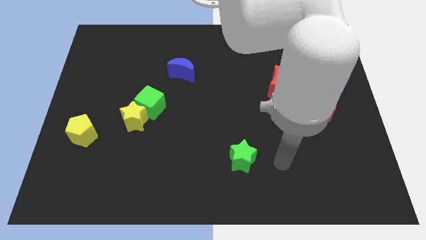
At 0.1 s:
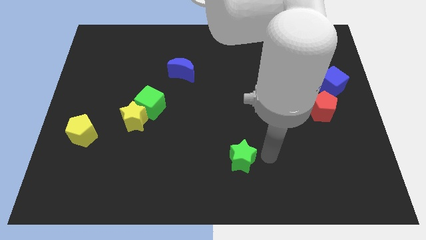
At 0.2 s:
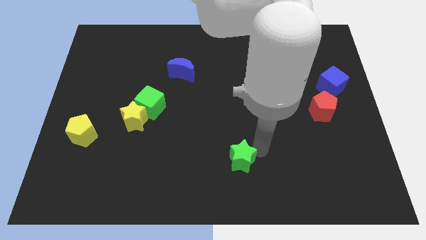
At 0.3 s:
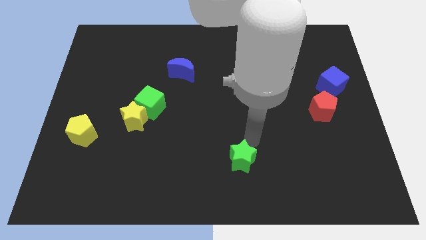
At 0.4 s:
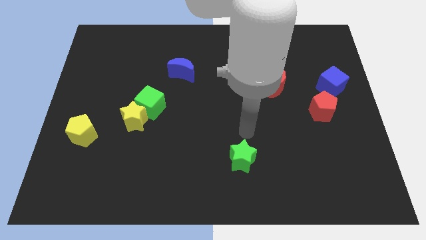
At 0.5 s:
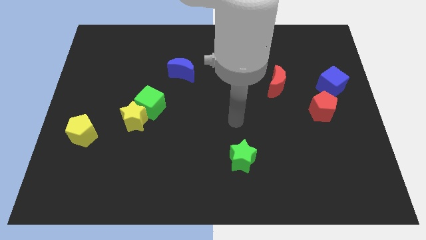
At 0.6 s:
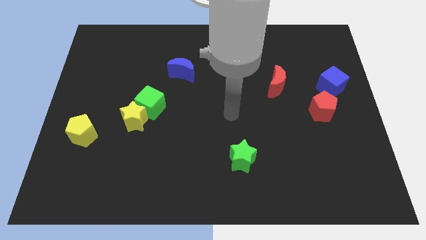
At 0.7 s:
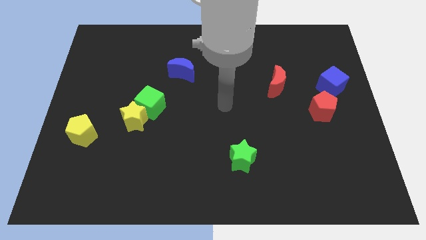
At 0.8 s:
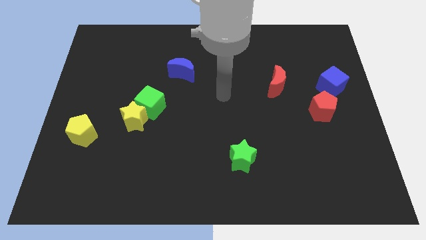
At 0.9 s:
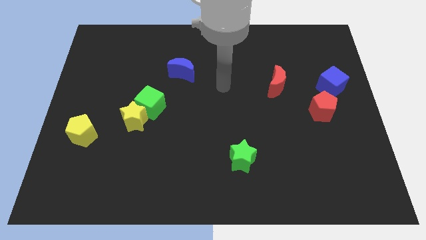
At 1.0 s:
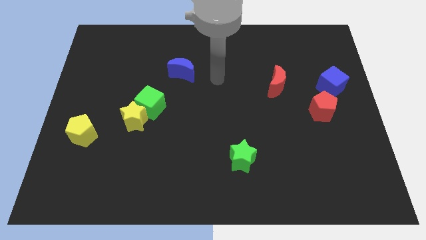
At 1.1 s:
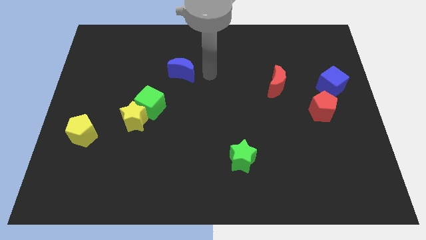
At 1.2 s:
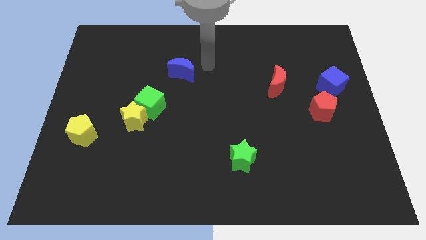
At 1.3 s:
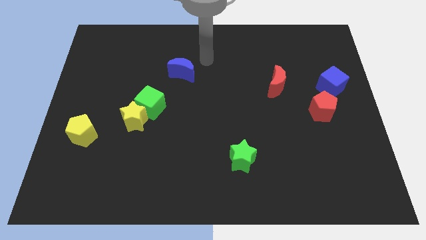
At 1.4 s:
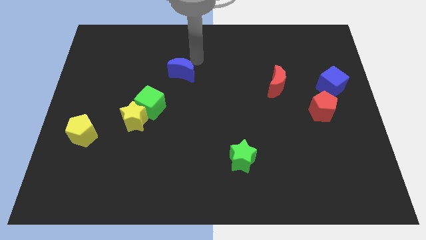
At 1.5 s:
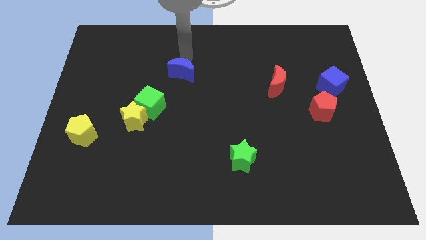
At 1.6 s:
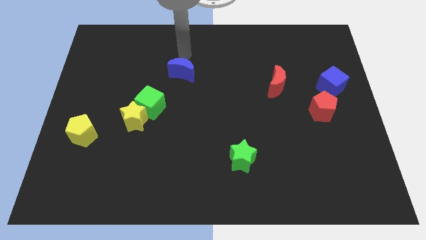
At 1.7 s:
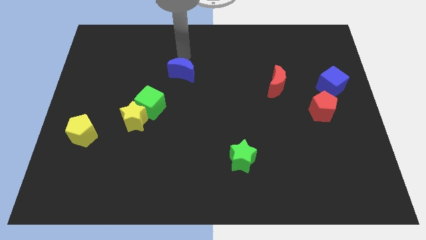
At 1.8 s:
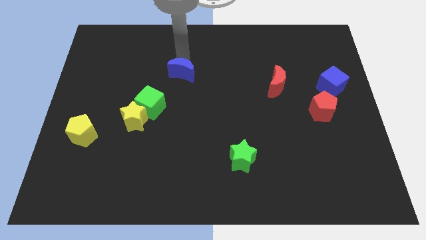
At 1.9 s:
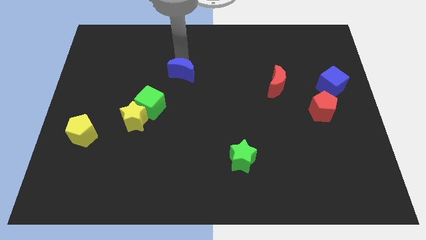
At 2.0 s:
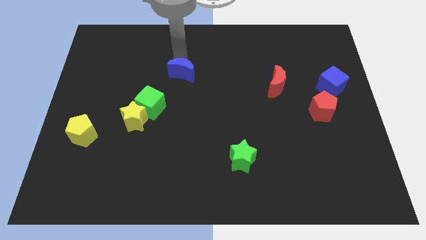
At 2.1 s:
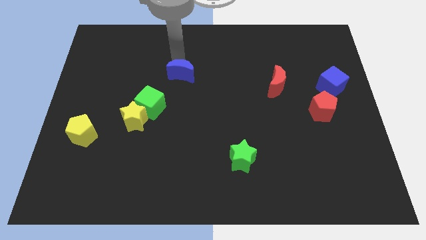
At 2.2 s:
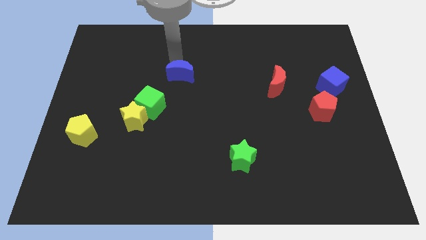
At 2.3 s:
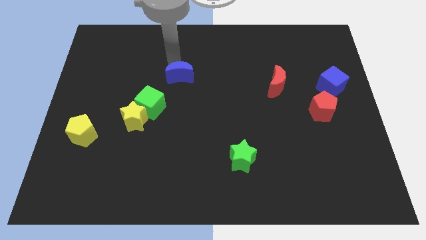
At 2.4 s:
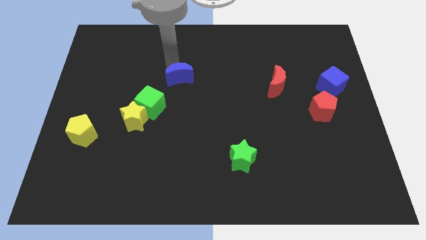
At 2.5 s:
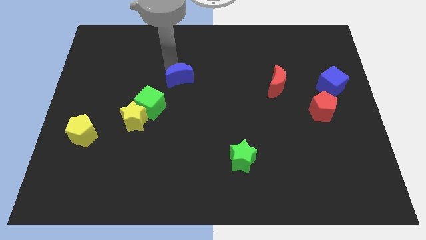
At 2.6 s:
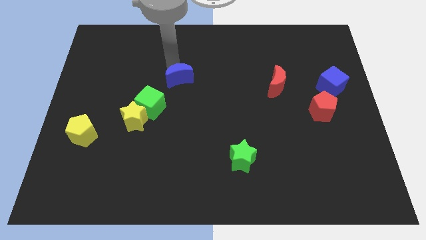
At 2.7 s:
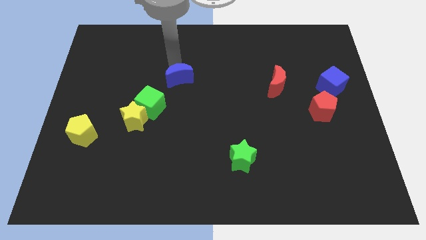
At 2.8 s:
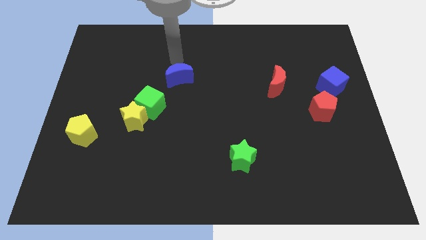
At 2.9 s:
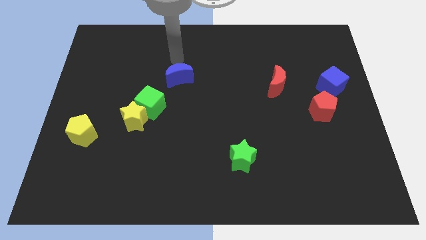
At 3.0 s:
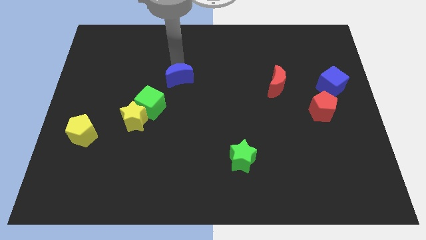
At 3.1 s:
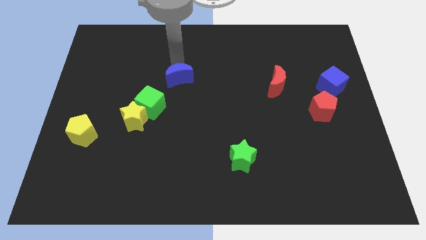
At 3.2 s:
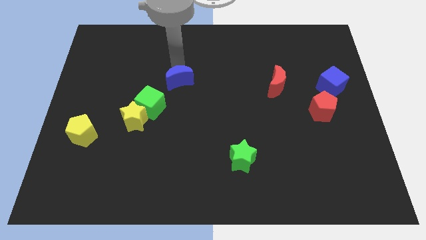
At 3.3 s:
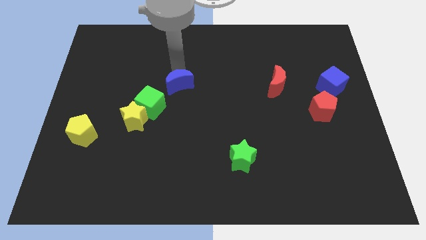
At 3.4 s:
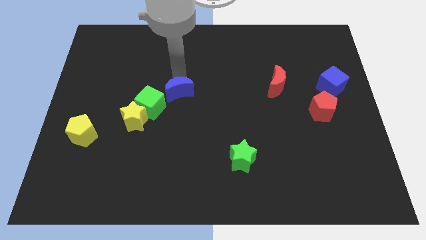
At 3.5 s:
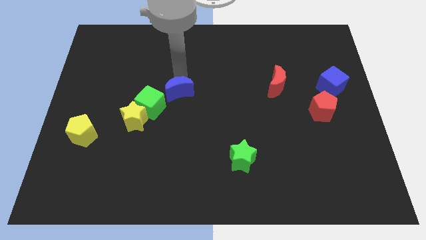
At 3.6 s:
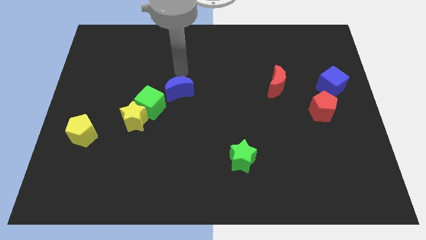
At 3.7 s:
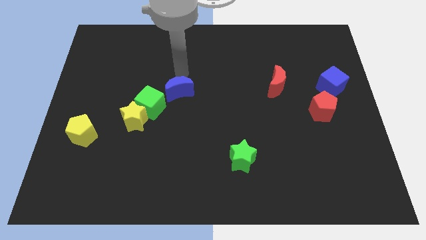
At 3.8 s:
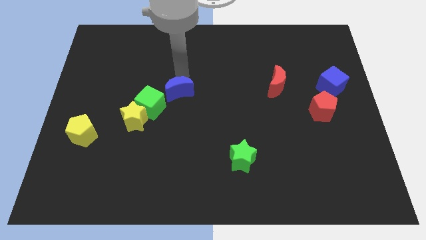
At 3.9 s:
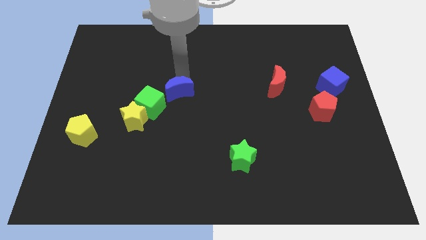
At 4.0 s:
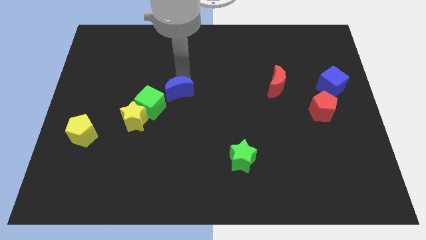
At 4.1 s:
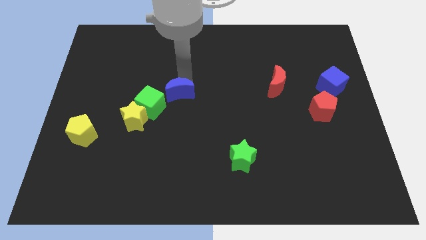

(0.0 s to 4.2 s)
slide the blue moon downwards a little

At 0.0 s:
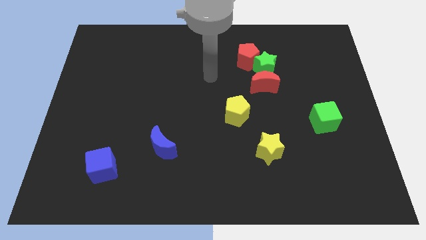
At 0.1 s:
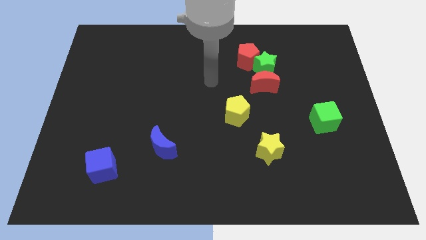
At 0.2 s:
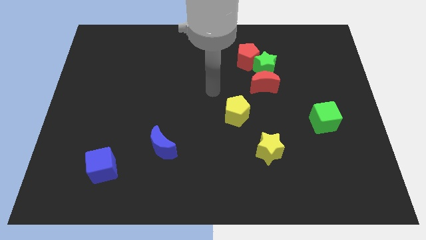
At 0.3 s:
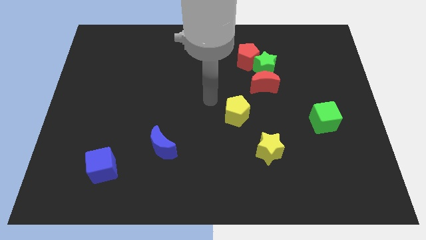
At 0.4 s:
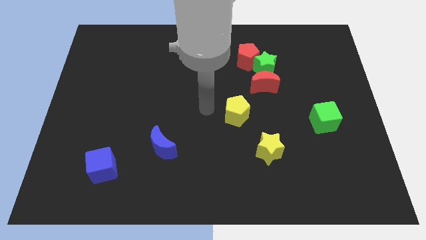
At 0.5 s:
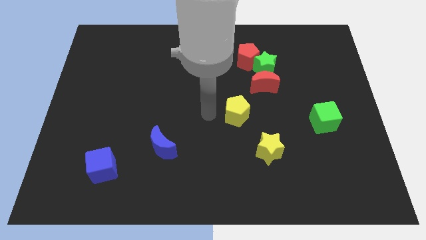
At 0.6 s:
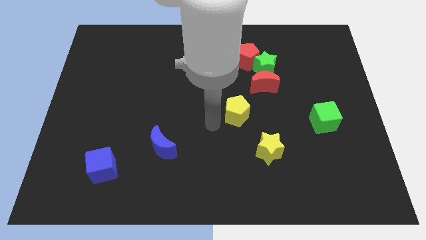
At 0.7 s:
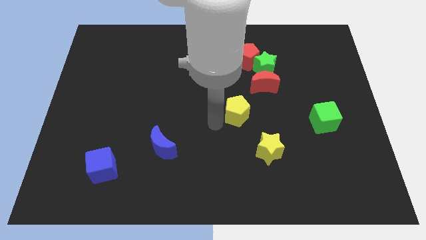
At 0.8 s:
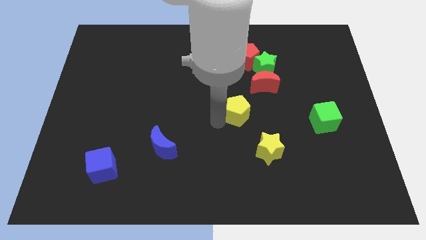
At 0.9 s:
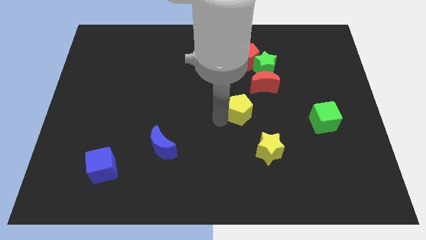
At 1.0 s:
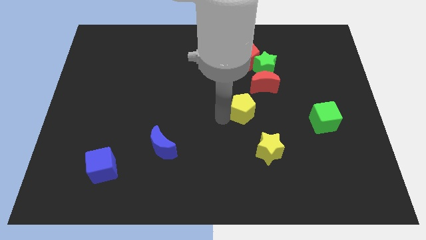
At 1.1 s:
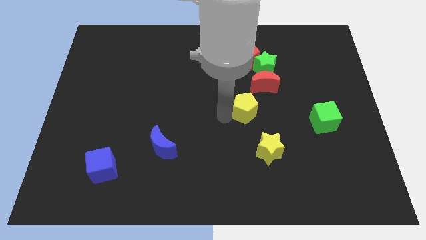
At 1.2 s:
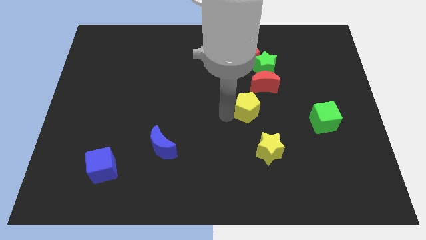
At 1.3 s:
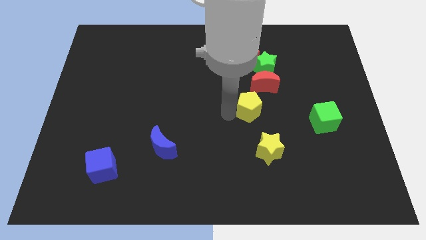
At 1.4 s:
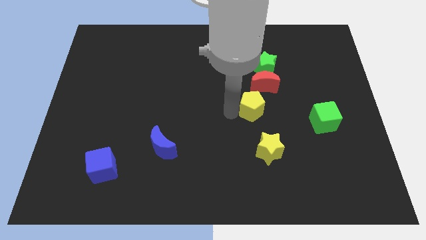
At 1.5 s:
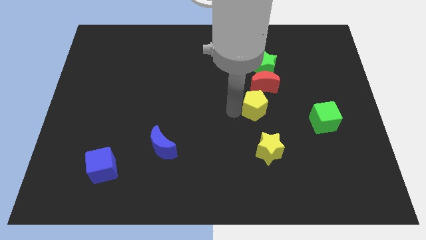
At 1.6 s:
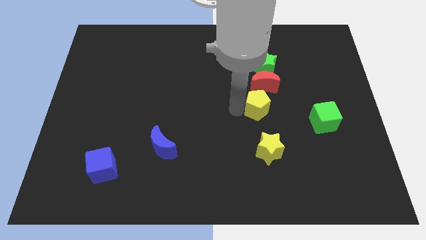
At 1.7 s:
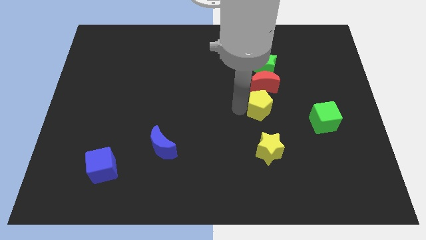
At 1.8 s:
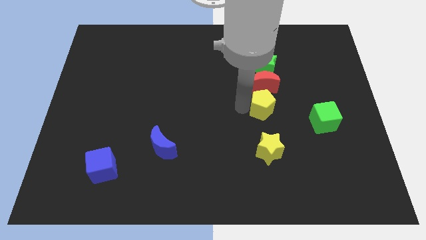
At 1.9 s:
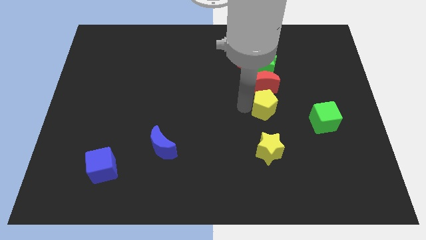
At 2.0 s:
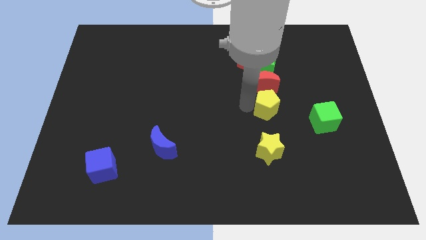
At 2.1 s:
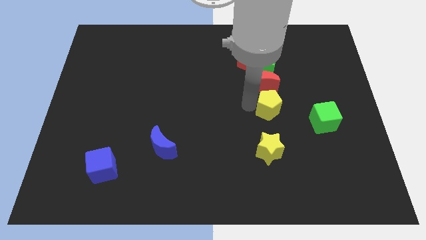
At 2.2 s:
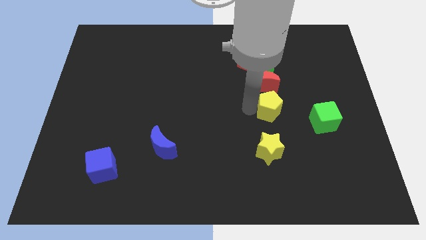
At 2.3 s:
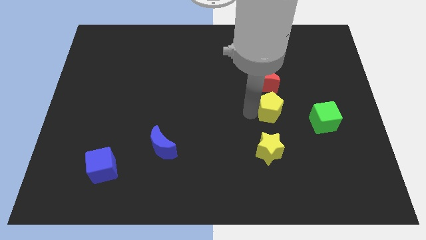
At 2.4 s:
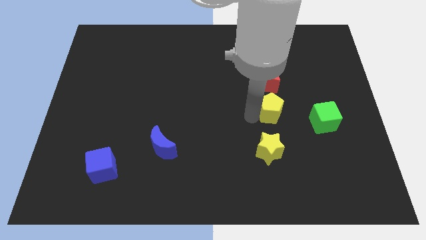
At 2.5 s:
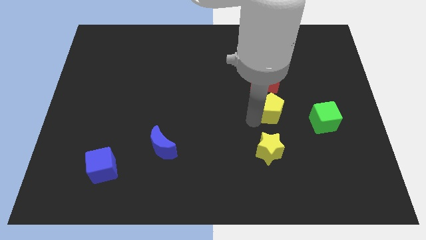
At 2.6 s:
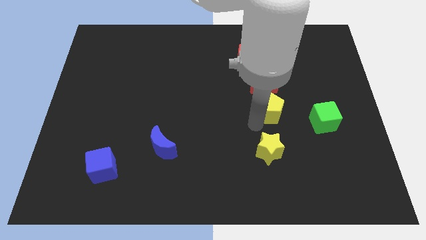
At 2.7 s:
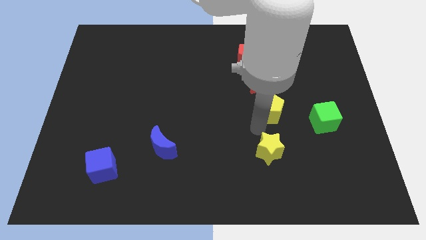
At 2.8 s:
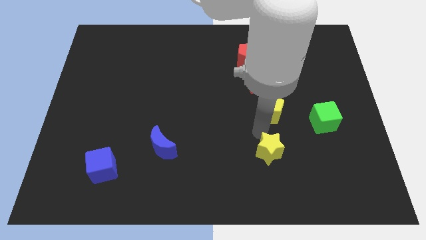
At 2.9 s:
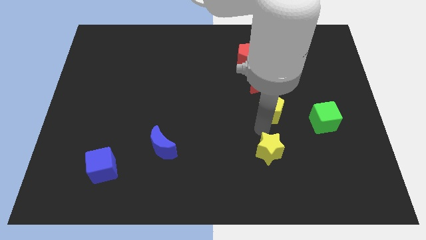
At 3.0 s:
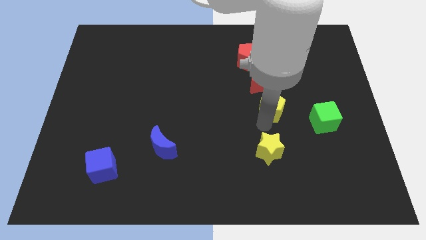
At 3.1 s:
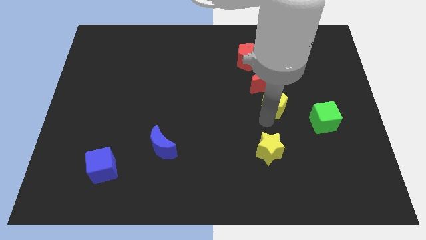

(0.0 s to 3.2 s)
push the yellow pentagon upwards and right somewhat

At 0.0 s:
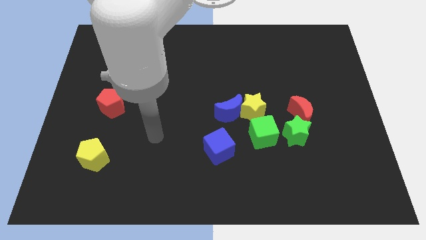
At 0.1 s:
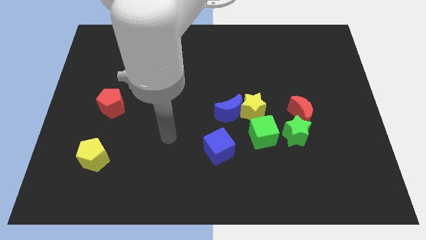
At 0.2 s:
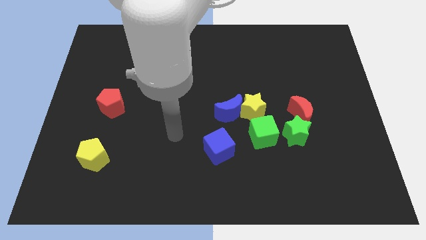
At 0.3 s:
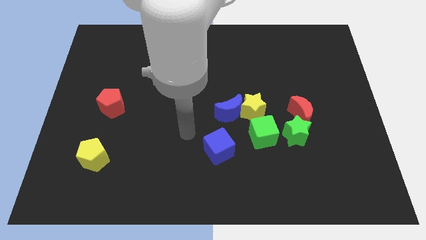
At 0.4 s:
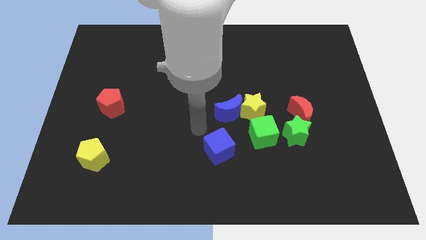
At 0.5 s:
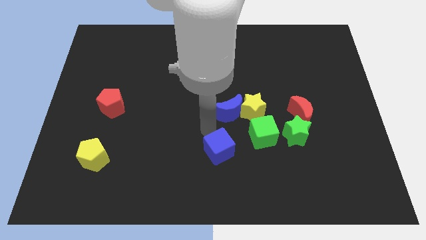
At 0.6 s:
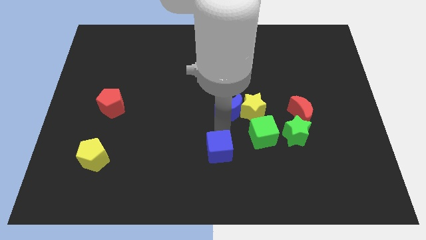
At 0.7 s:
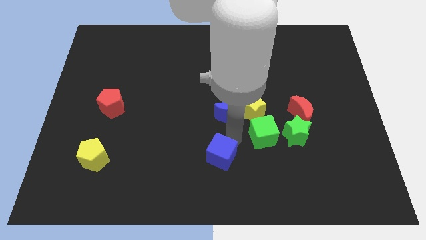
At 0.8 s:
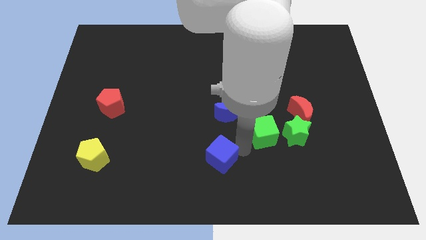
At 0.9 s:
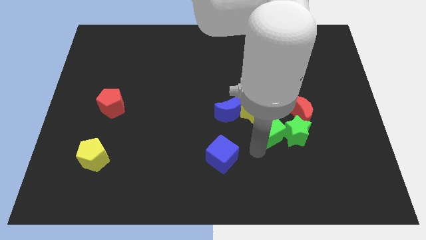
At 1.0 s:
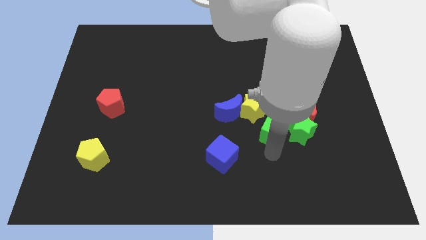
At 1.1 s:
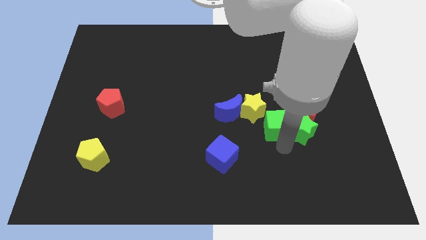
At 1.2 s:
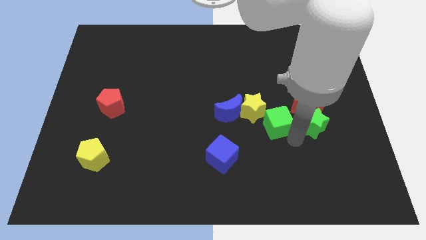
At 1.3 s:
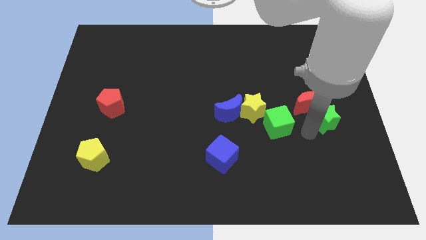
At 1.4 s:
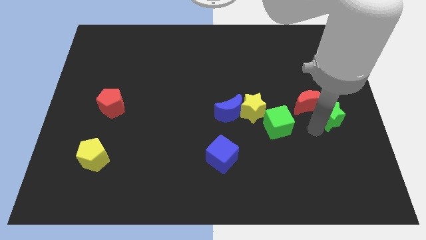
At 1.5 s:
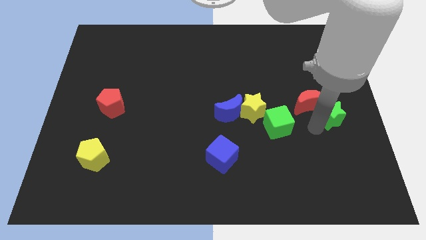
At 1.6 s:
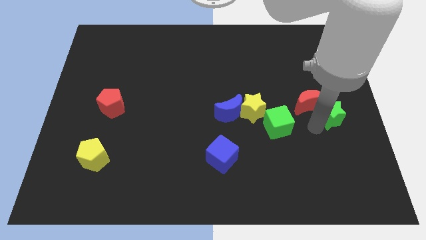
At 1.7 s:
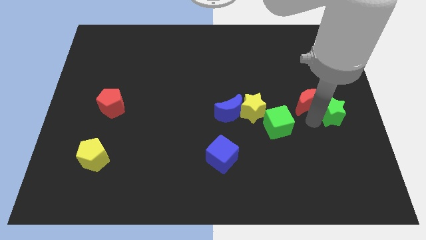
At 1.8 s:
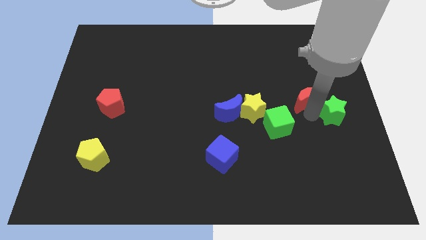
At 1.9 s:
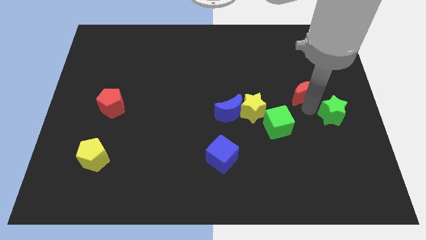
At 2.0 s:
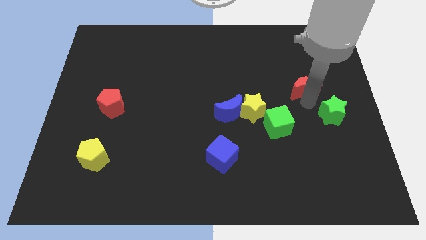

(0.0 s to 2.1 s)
move the red moon a bit upwards
